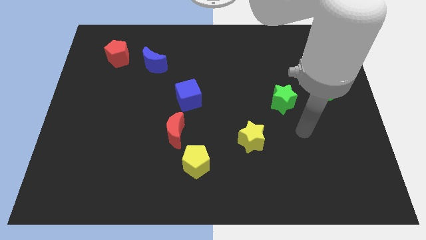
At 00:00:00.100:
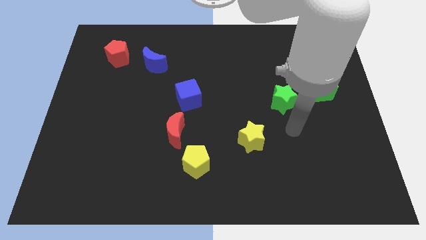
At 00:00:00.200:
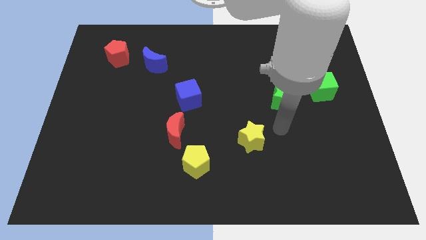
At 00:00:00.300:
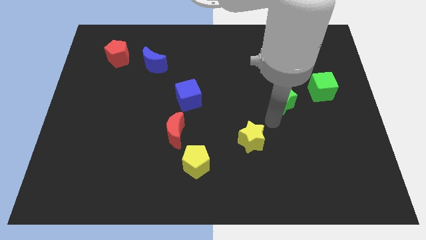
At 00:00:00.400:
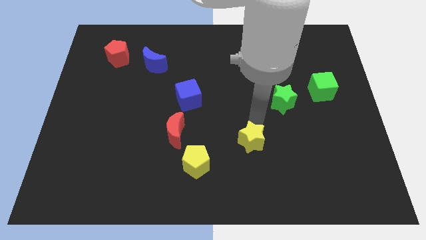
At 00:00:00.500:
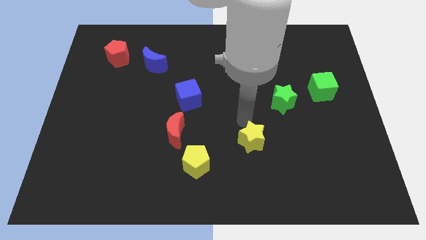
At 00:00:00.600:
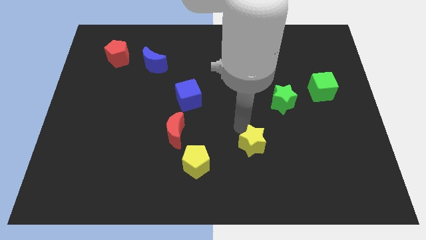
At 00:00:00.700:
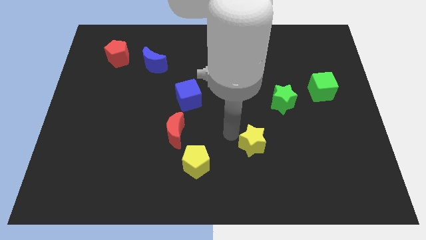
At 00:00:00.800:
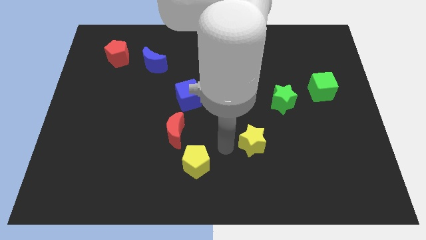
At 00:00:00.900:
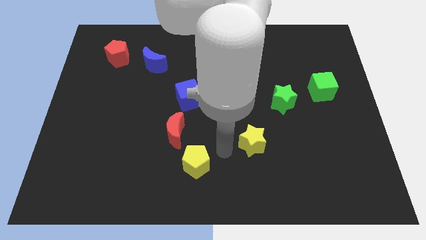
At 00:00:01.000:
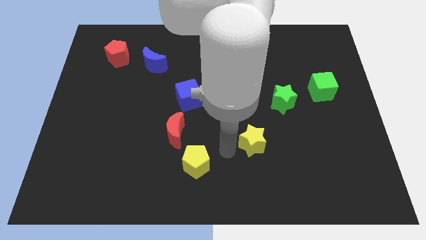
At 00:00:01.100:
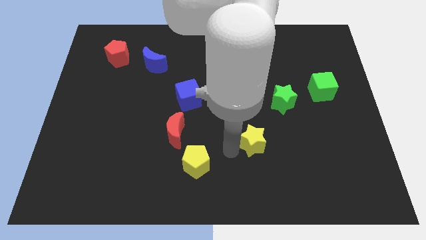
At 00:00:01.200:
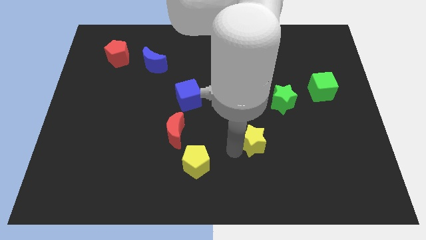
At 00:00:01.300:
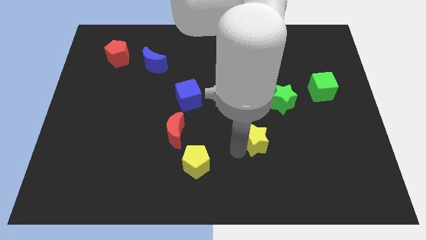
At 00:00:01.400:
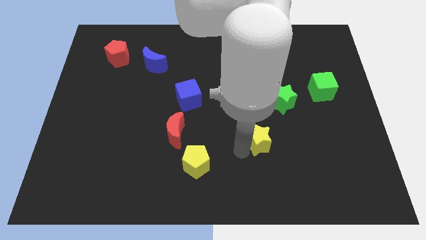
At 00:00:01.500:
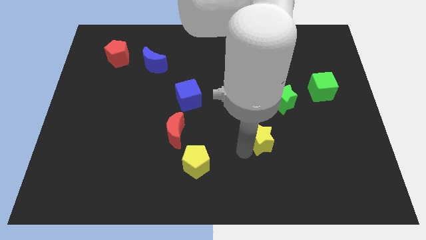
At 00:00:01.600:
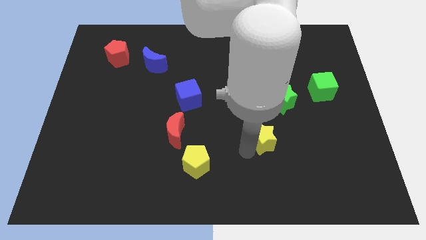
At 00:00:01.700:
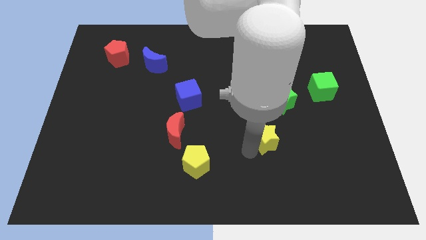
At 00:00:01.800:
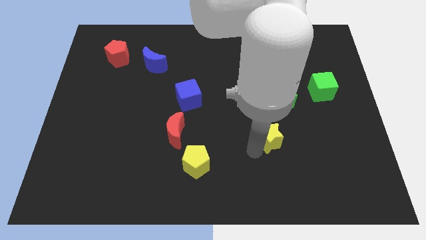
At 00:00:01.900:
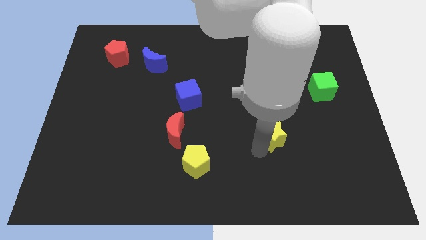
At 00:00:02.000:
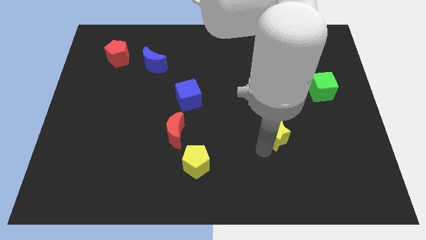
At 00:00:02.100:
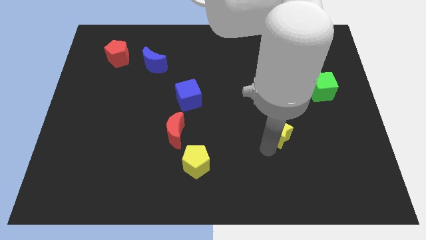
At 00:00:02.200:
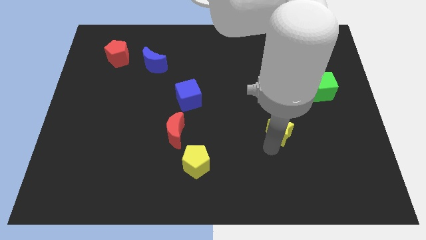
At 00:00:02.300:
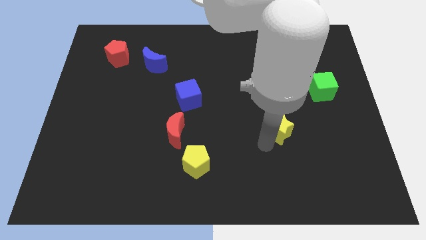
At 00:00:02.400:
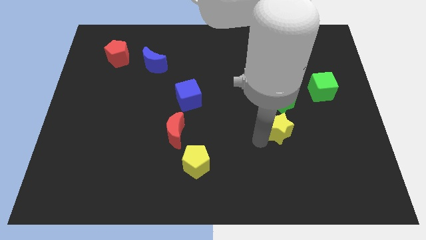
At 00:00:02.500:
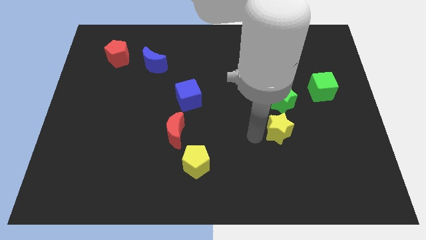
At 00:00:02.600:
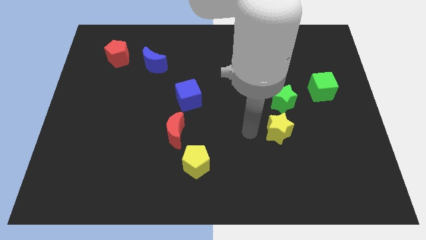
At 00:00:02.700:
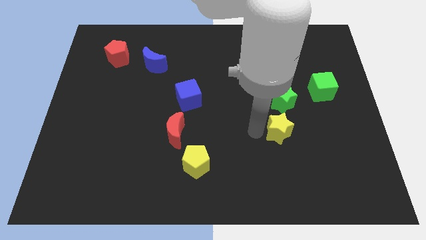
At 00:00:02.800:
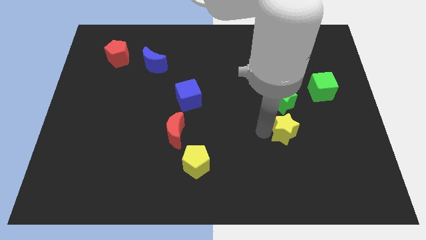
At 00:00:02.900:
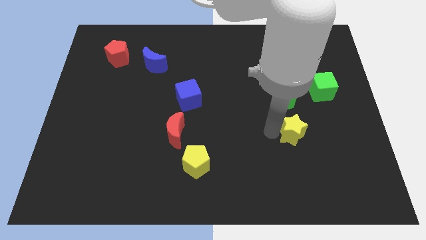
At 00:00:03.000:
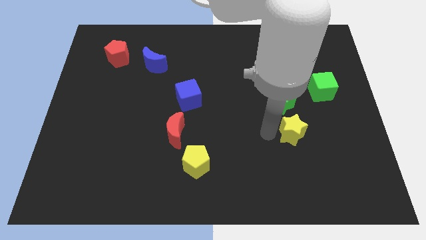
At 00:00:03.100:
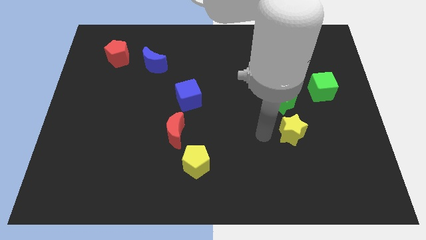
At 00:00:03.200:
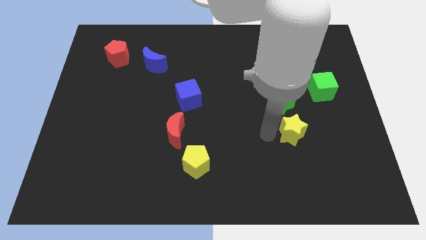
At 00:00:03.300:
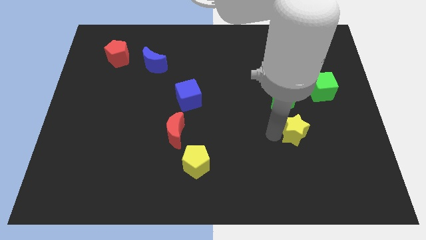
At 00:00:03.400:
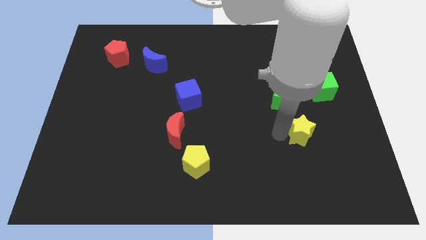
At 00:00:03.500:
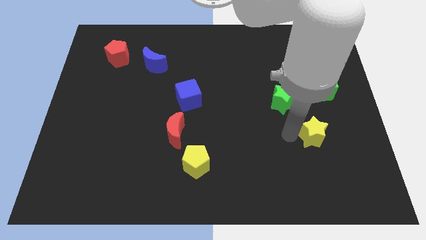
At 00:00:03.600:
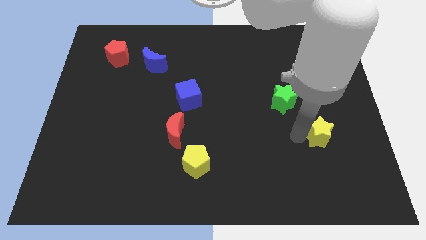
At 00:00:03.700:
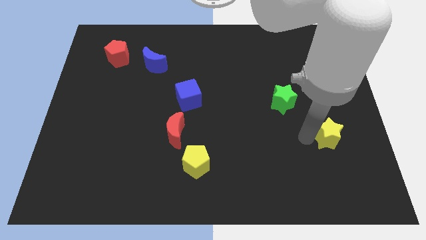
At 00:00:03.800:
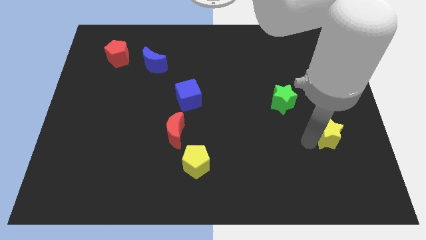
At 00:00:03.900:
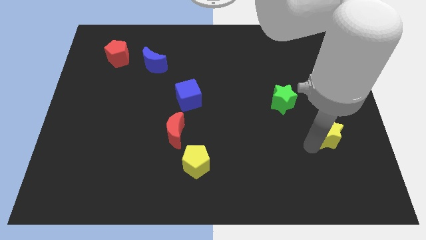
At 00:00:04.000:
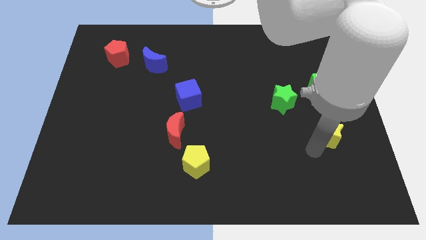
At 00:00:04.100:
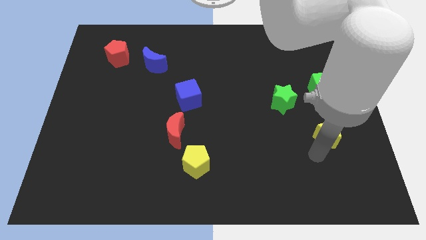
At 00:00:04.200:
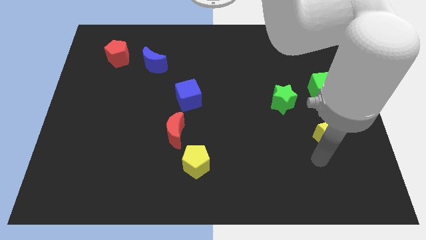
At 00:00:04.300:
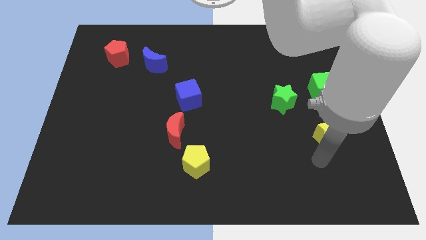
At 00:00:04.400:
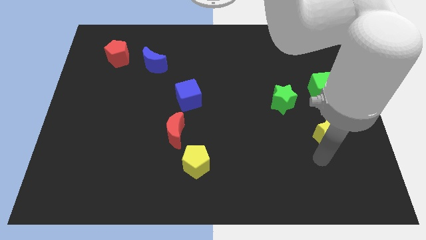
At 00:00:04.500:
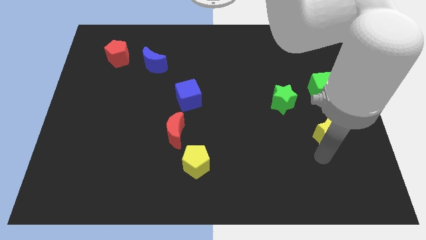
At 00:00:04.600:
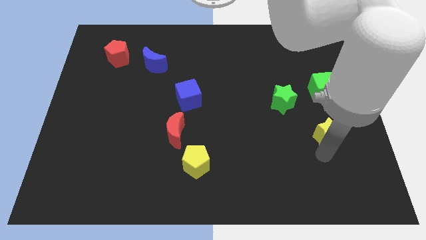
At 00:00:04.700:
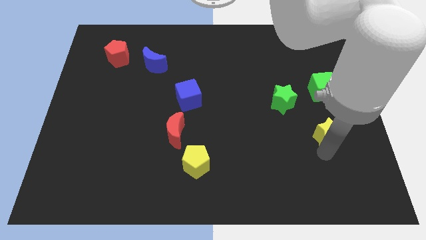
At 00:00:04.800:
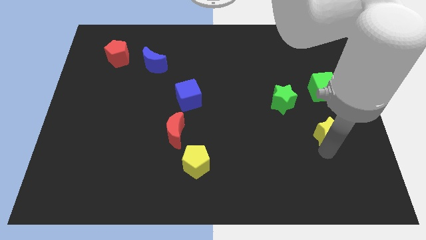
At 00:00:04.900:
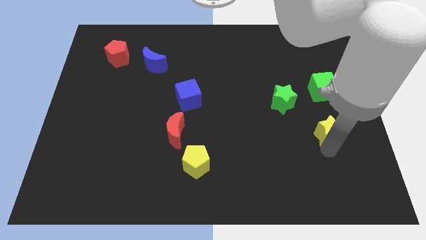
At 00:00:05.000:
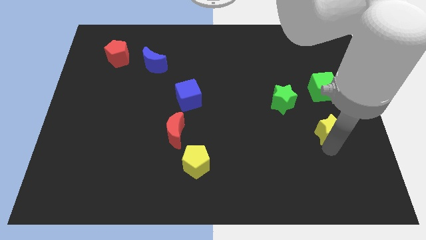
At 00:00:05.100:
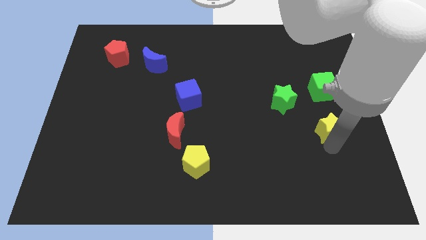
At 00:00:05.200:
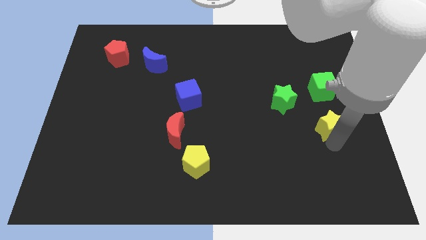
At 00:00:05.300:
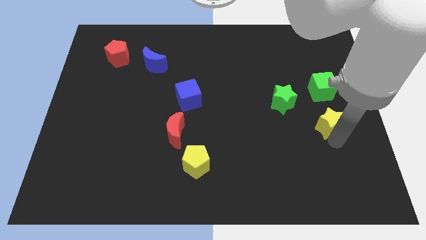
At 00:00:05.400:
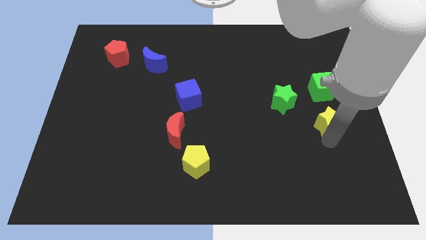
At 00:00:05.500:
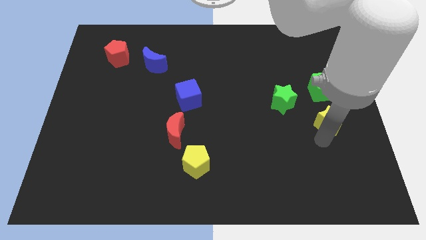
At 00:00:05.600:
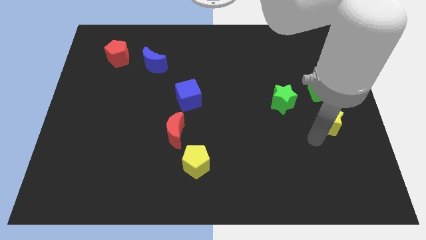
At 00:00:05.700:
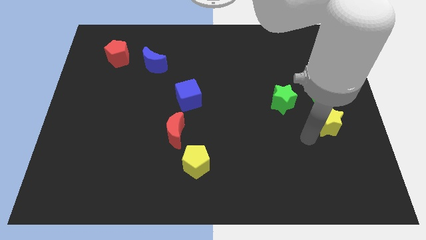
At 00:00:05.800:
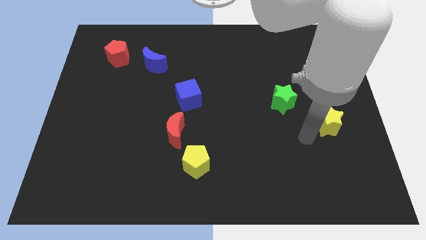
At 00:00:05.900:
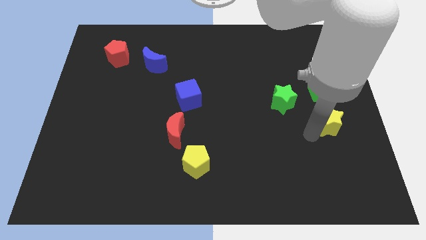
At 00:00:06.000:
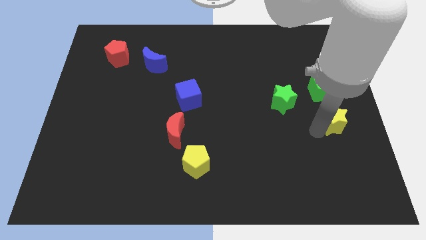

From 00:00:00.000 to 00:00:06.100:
push the yellow star to the right side of the board

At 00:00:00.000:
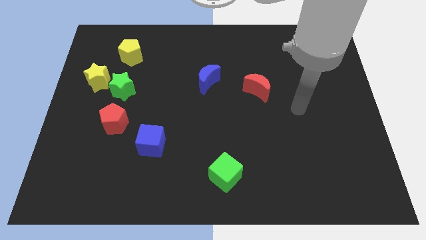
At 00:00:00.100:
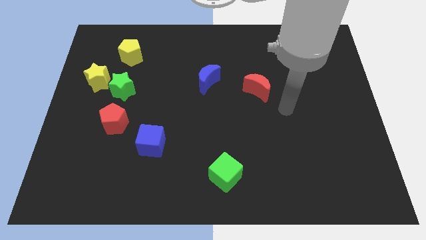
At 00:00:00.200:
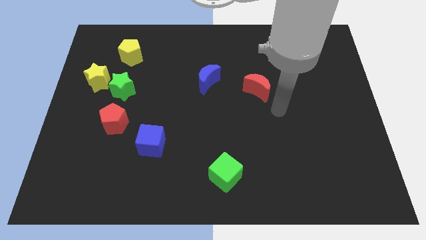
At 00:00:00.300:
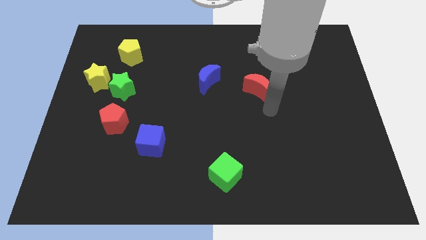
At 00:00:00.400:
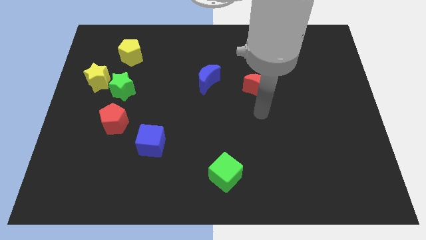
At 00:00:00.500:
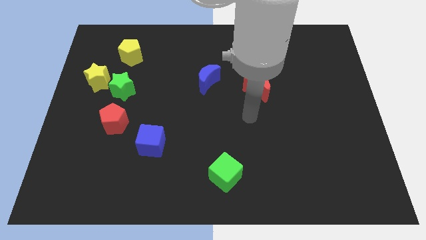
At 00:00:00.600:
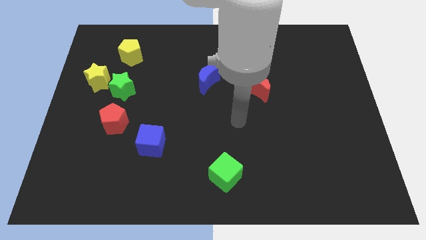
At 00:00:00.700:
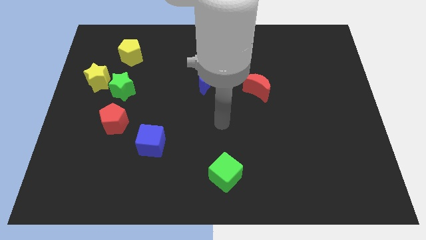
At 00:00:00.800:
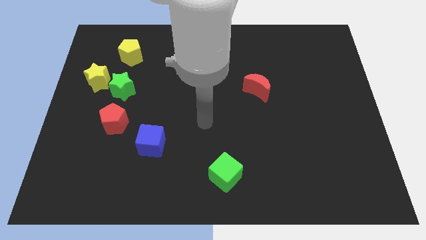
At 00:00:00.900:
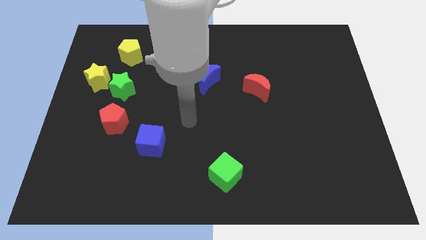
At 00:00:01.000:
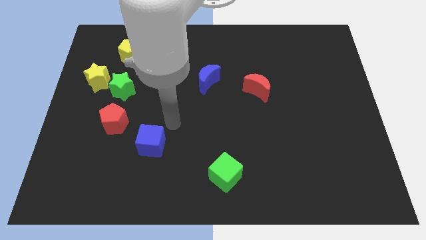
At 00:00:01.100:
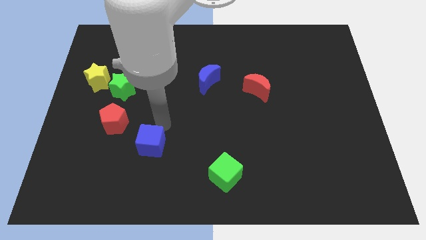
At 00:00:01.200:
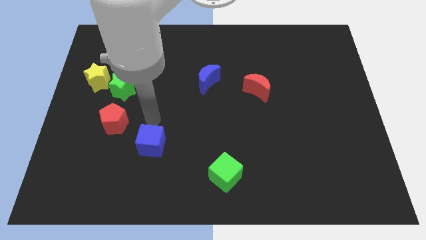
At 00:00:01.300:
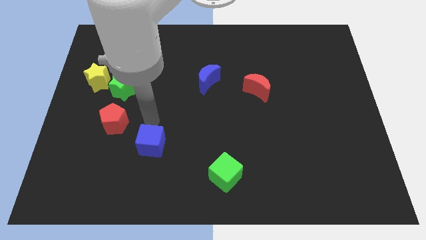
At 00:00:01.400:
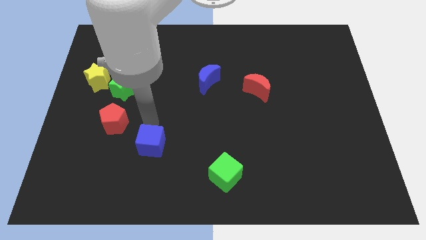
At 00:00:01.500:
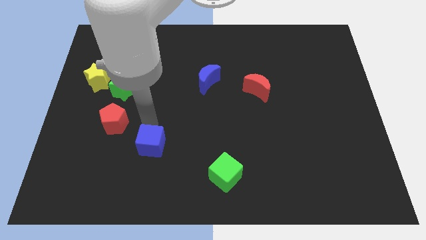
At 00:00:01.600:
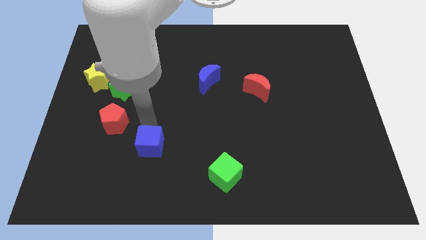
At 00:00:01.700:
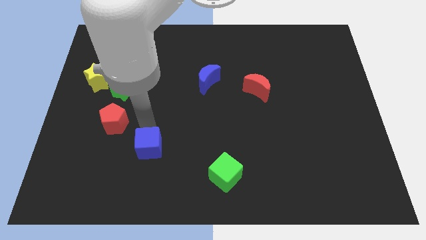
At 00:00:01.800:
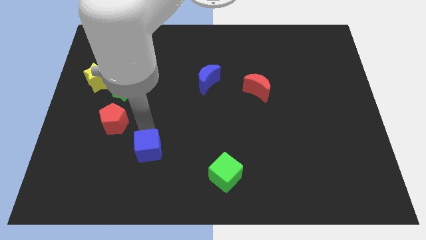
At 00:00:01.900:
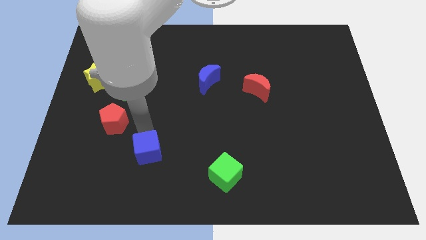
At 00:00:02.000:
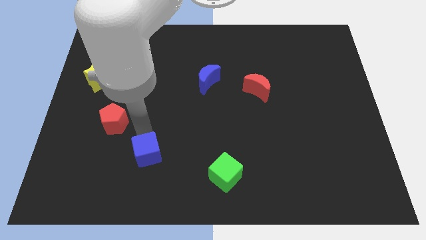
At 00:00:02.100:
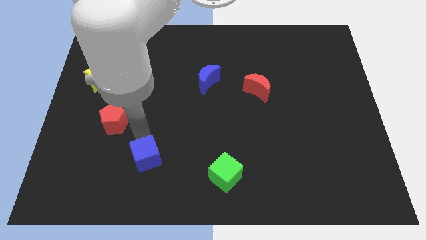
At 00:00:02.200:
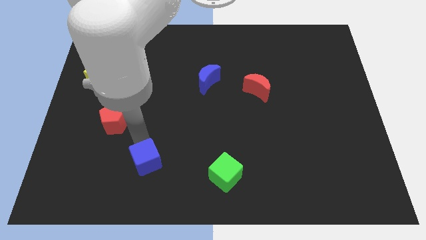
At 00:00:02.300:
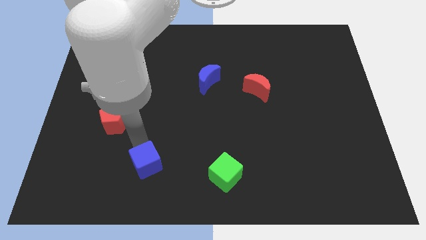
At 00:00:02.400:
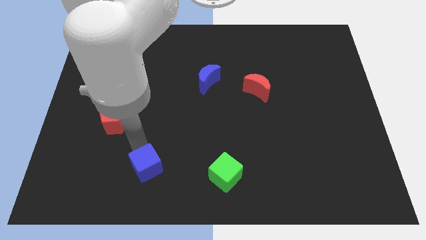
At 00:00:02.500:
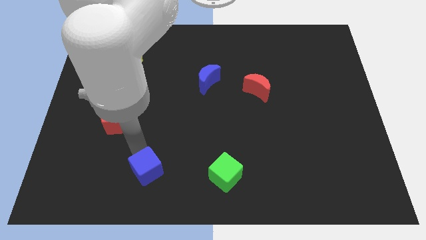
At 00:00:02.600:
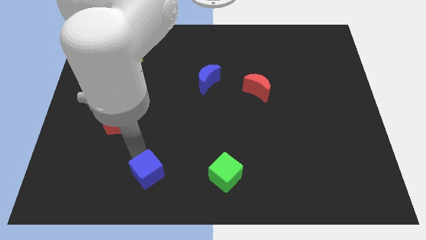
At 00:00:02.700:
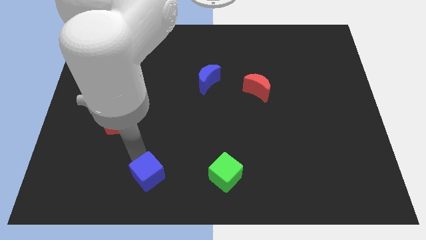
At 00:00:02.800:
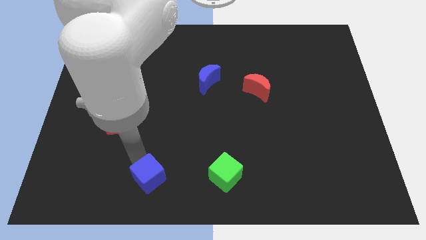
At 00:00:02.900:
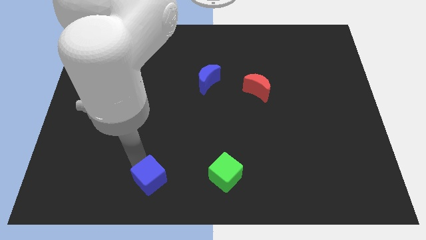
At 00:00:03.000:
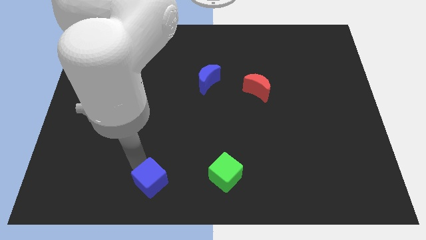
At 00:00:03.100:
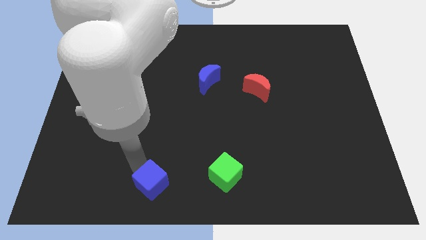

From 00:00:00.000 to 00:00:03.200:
slide the blue cube to the bottom side
